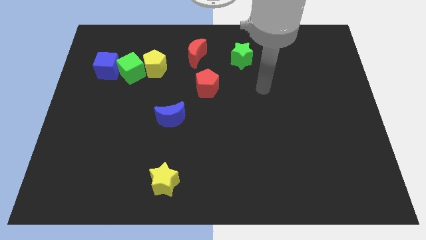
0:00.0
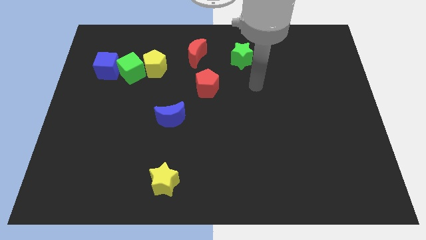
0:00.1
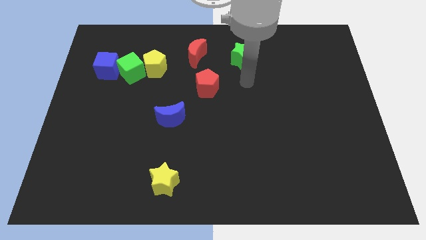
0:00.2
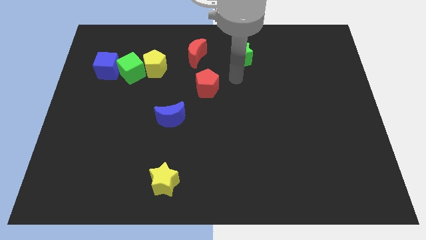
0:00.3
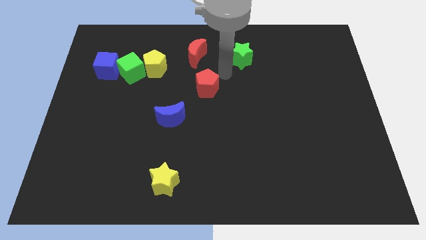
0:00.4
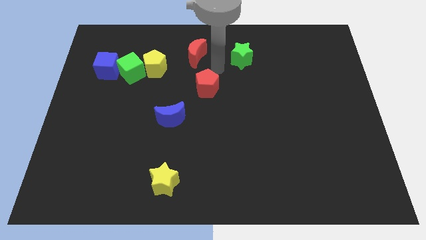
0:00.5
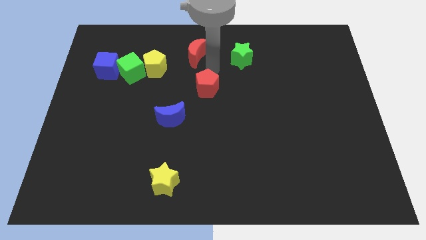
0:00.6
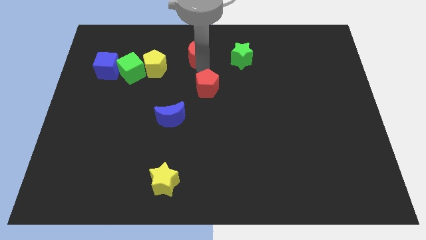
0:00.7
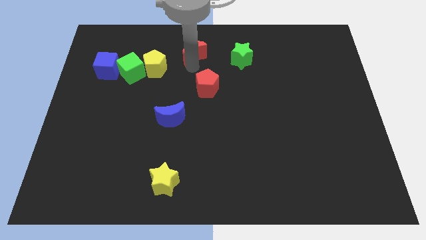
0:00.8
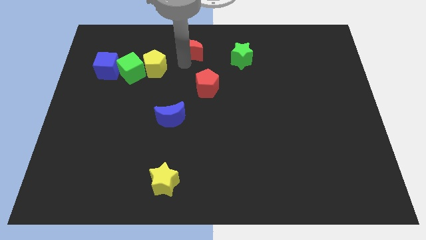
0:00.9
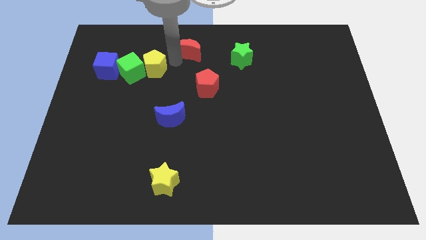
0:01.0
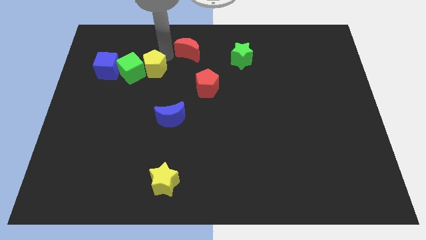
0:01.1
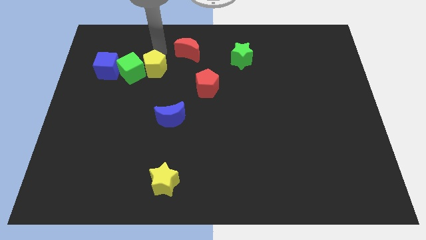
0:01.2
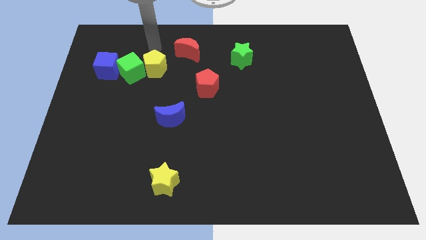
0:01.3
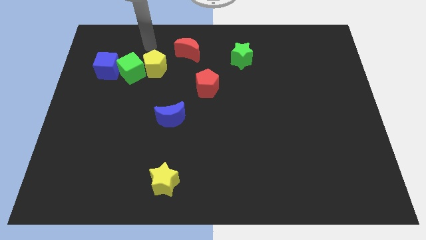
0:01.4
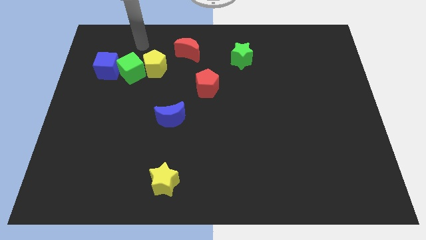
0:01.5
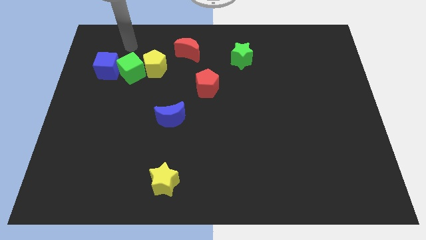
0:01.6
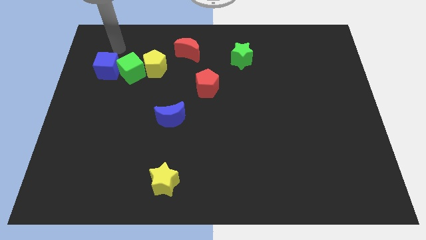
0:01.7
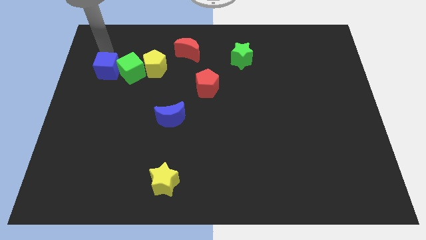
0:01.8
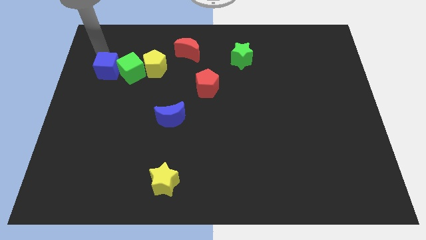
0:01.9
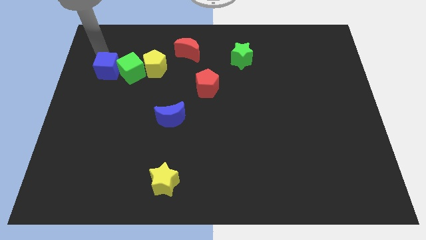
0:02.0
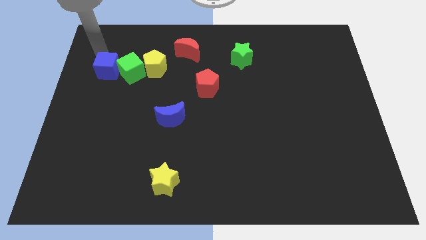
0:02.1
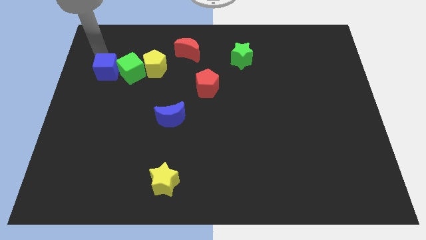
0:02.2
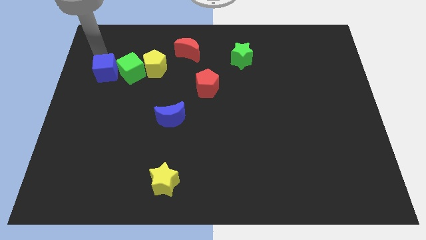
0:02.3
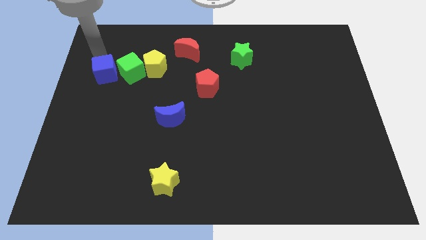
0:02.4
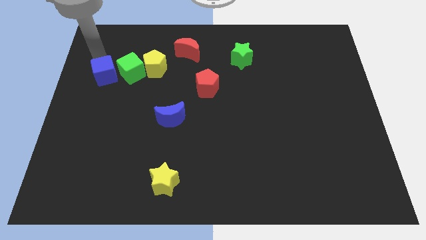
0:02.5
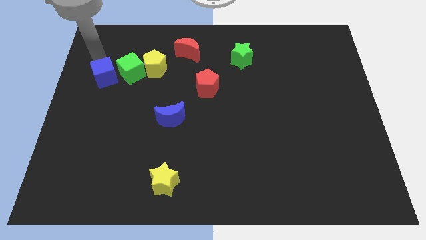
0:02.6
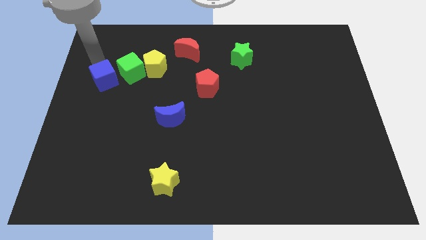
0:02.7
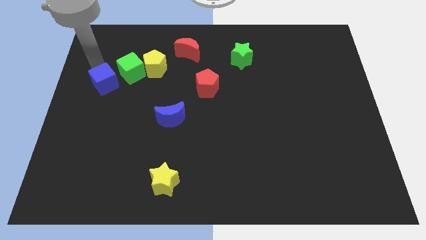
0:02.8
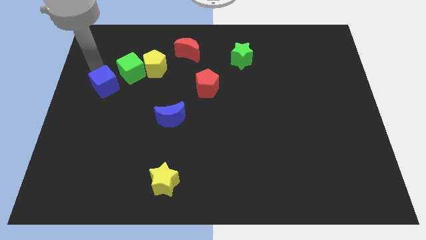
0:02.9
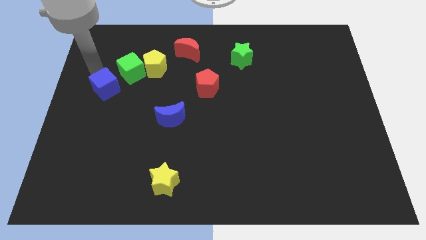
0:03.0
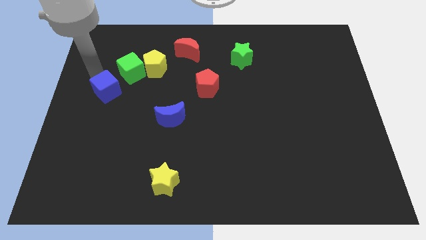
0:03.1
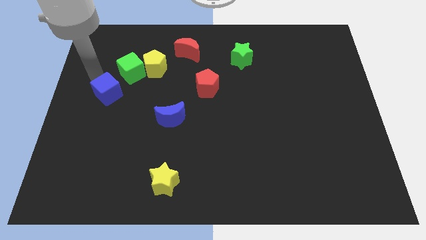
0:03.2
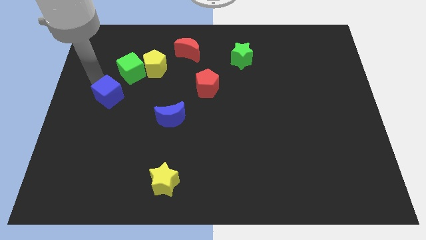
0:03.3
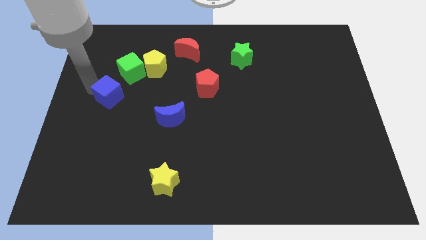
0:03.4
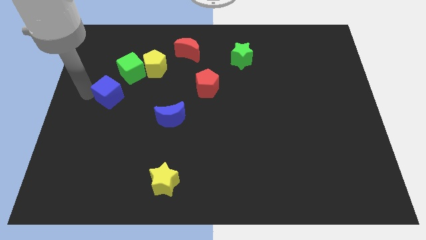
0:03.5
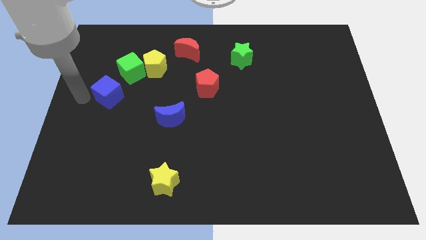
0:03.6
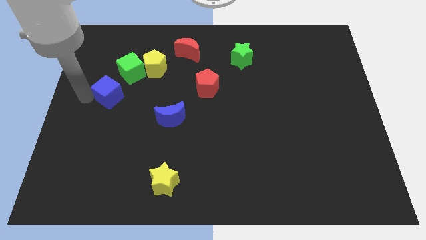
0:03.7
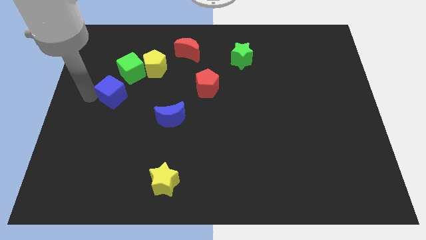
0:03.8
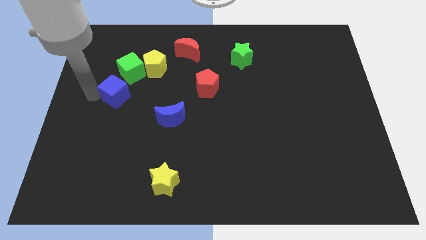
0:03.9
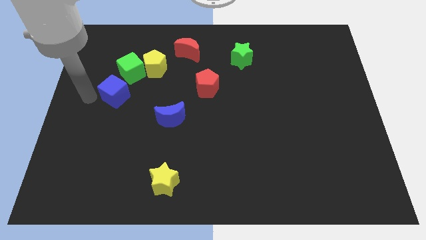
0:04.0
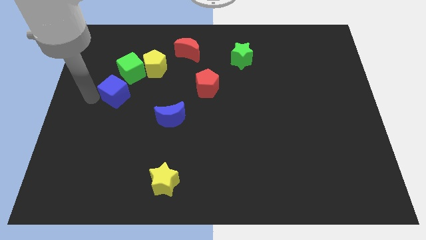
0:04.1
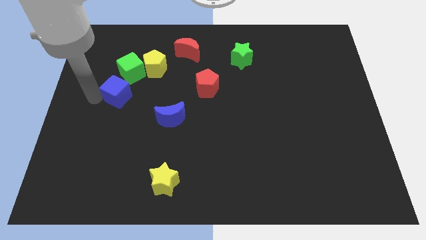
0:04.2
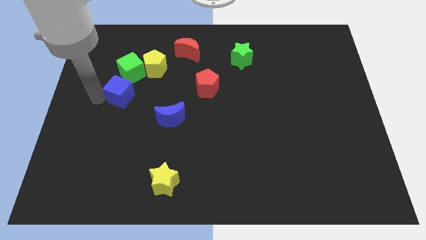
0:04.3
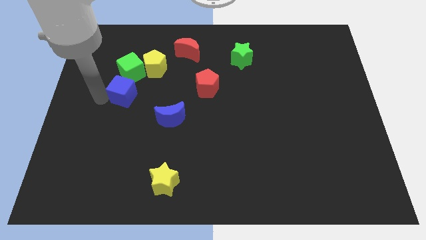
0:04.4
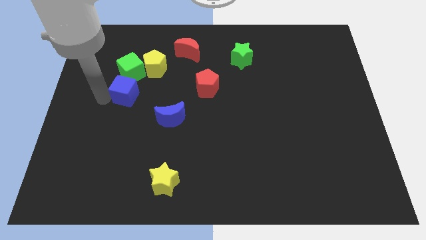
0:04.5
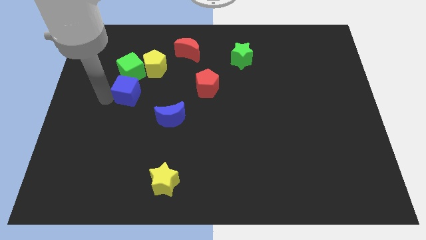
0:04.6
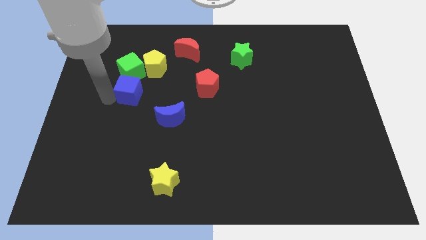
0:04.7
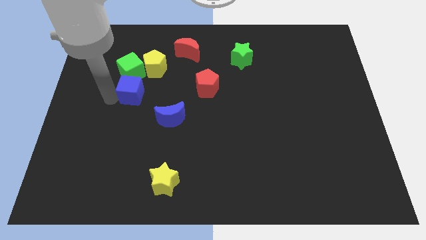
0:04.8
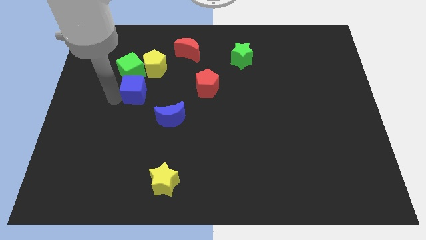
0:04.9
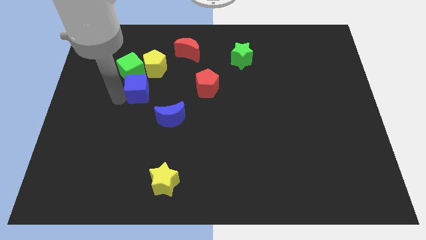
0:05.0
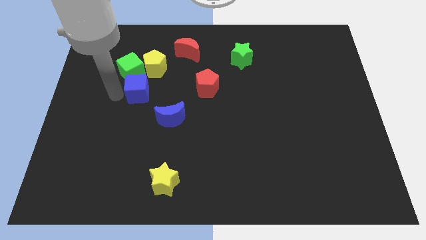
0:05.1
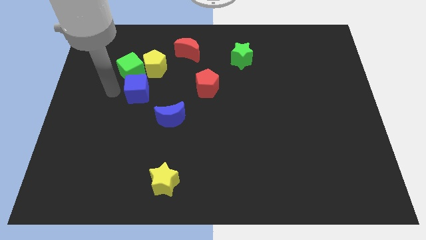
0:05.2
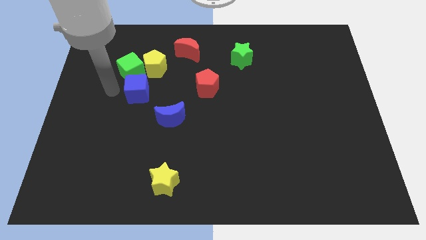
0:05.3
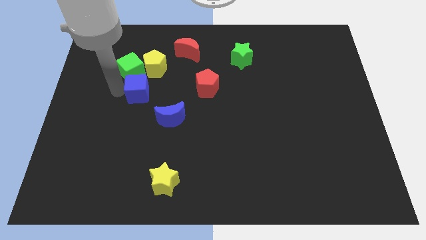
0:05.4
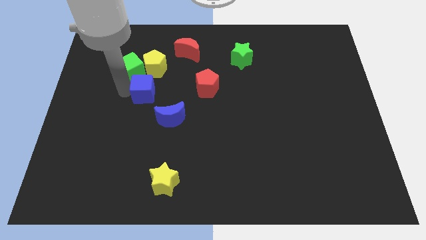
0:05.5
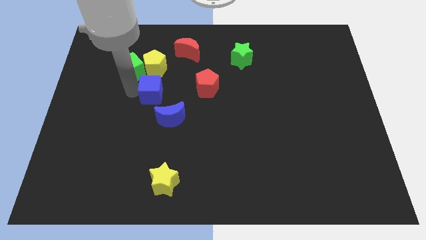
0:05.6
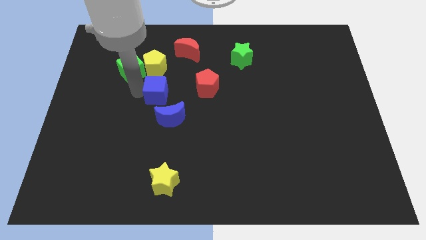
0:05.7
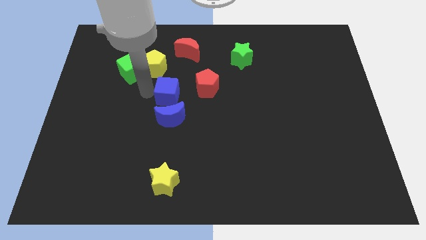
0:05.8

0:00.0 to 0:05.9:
push the blue cube to the middle of the board

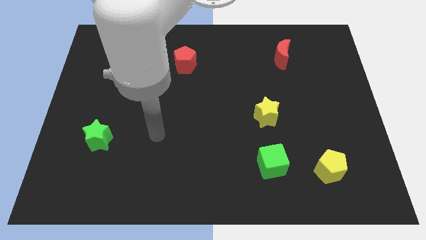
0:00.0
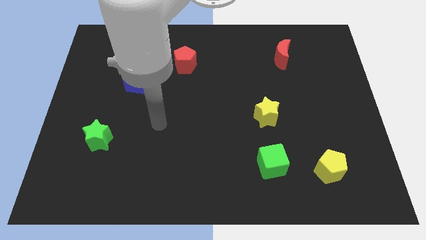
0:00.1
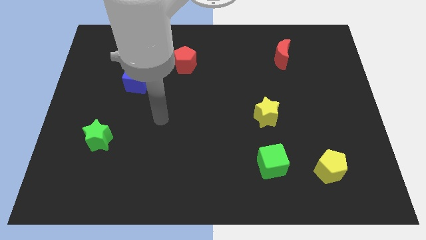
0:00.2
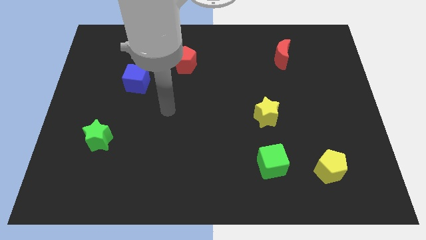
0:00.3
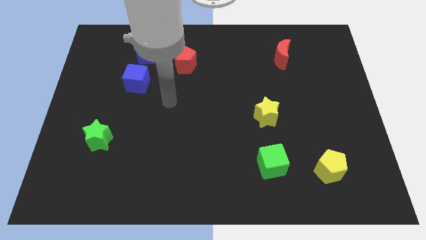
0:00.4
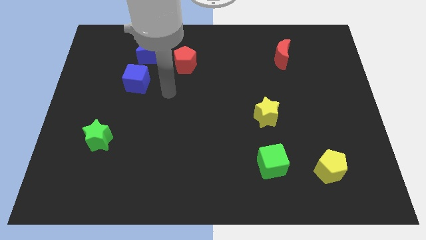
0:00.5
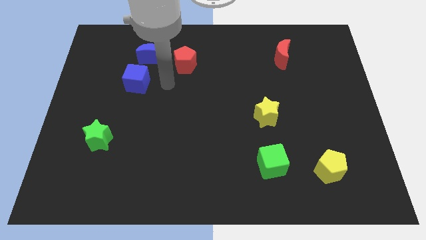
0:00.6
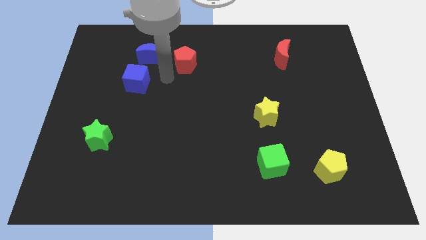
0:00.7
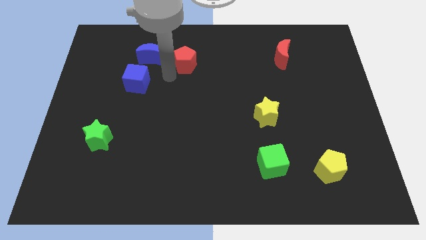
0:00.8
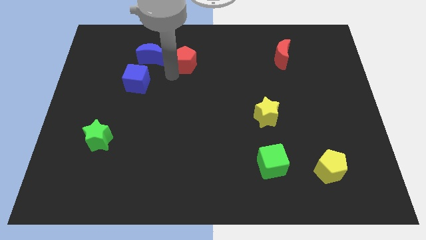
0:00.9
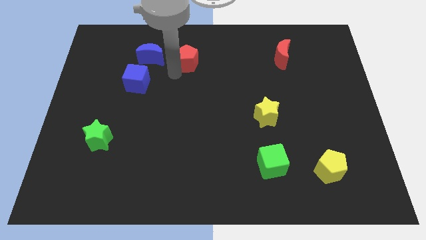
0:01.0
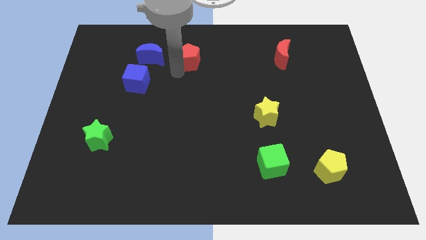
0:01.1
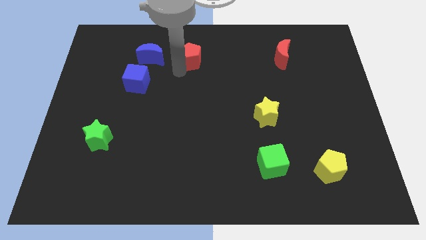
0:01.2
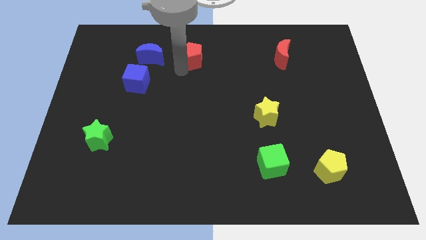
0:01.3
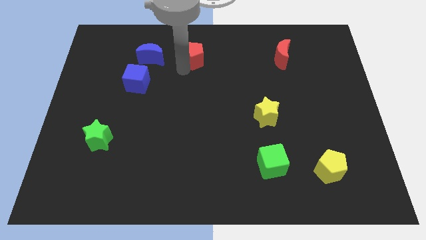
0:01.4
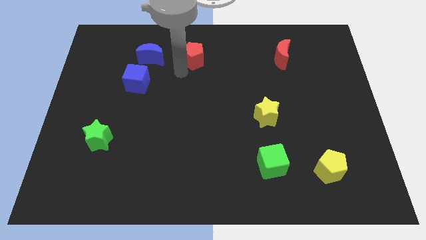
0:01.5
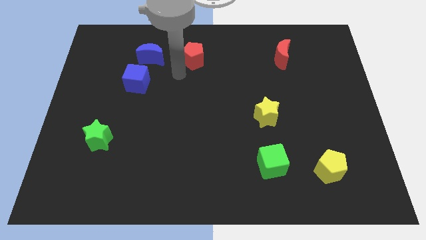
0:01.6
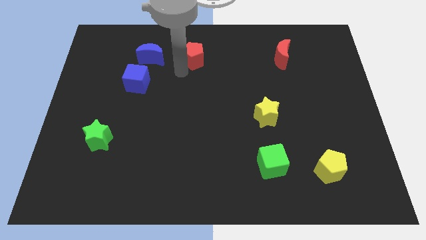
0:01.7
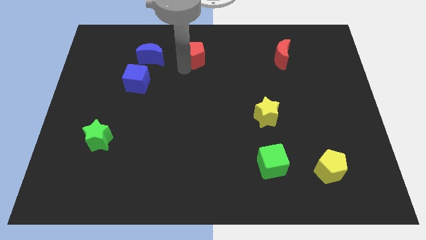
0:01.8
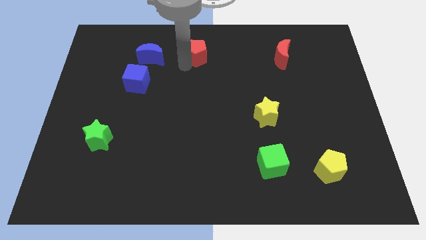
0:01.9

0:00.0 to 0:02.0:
slide the red pentagon to the top
